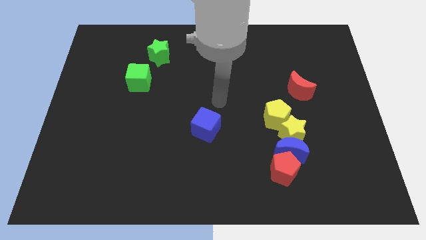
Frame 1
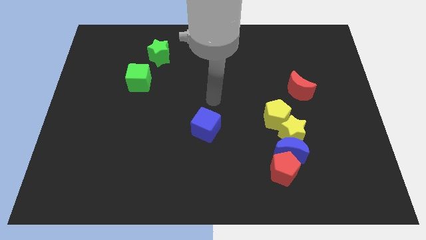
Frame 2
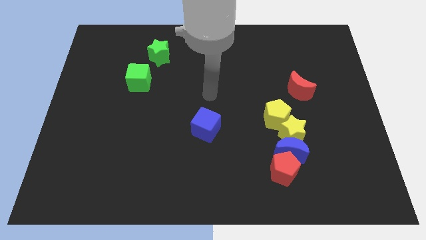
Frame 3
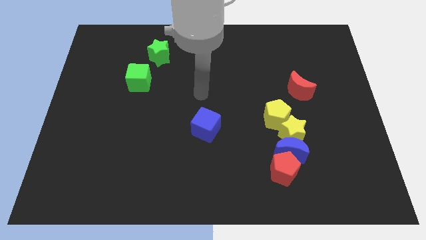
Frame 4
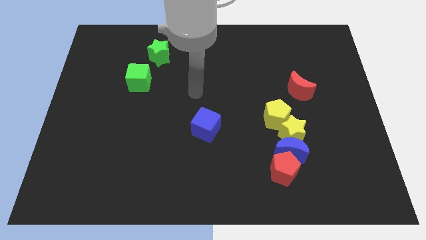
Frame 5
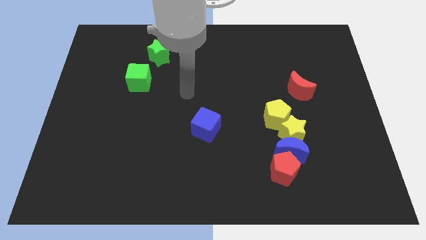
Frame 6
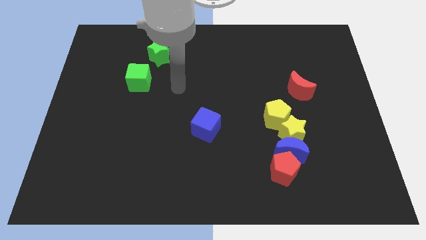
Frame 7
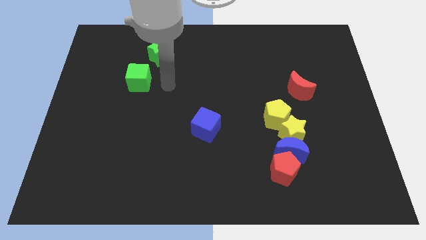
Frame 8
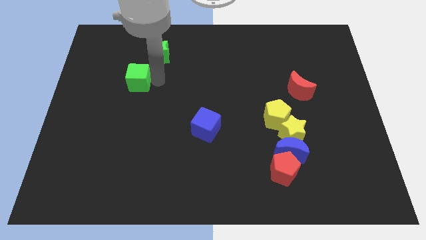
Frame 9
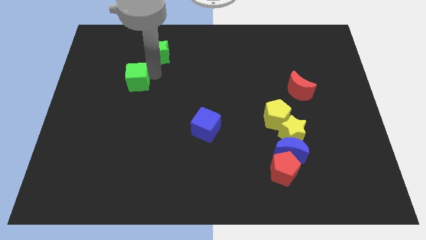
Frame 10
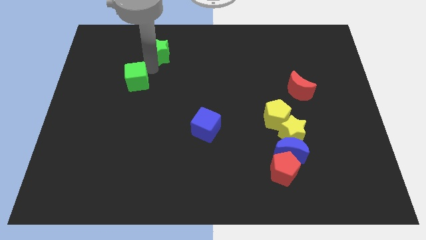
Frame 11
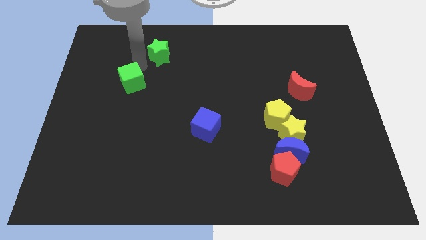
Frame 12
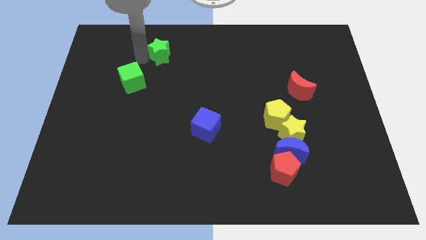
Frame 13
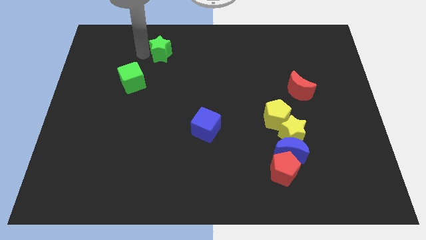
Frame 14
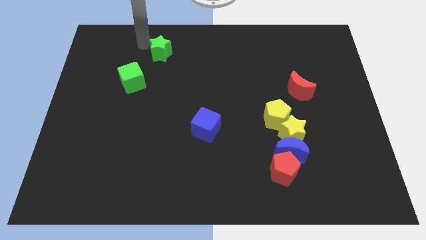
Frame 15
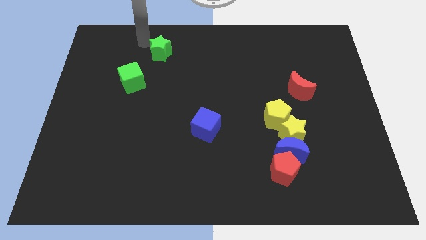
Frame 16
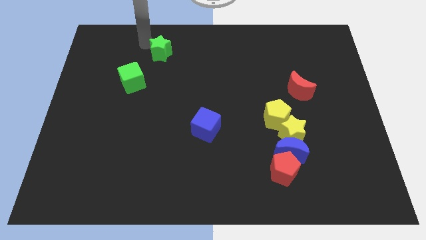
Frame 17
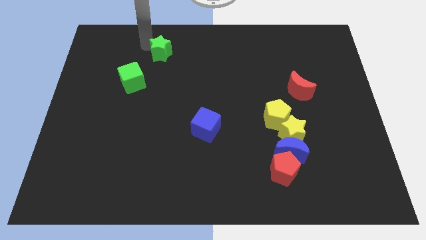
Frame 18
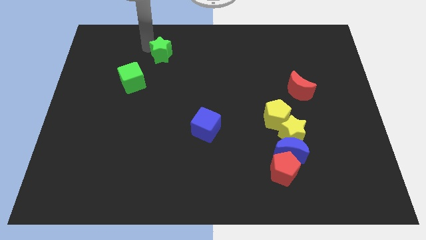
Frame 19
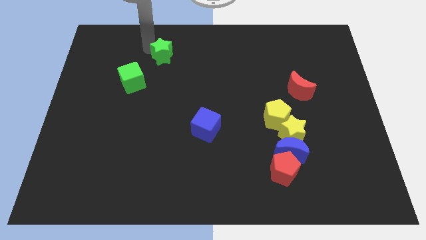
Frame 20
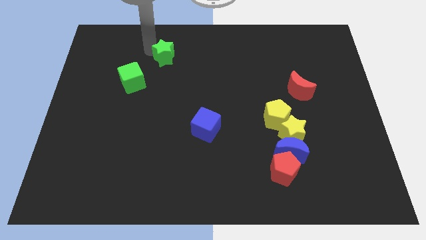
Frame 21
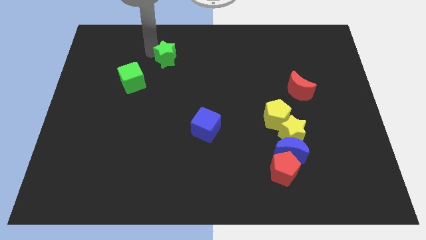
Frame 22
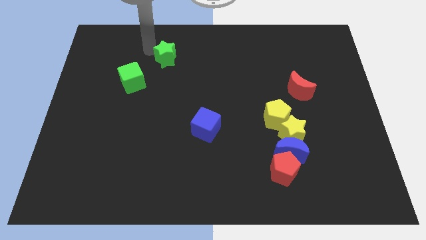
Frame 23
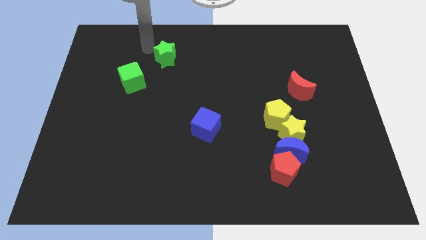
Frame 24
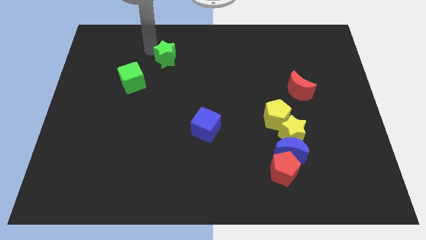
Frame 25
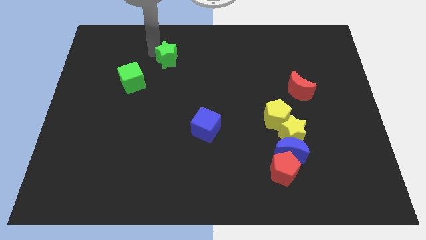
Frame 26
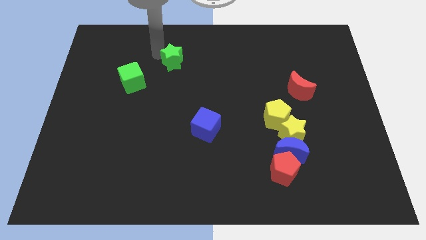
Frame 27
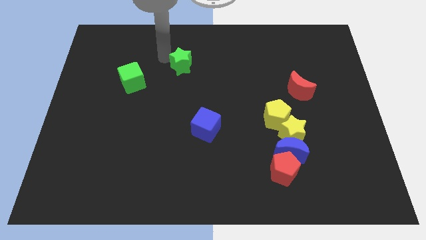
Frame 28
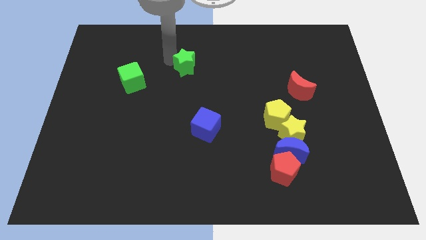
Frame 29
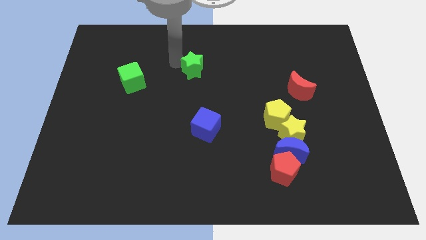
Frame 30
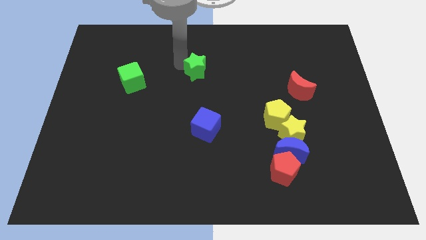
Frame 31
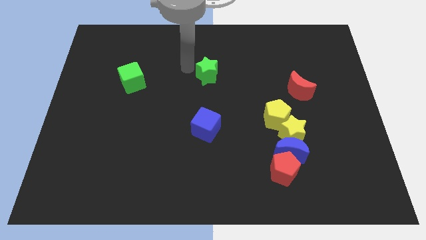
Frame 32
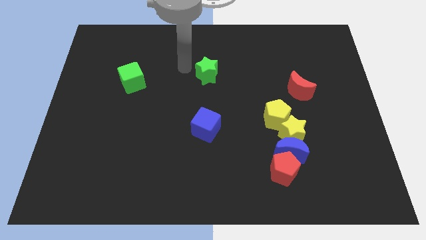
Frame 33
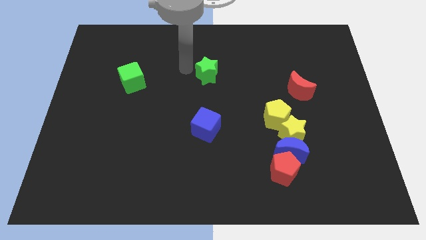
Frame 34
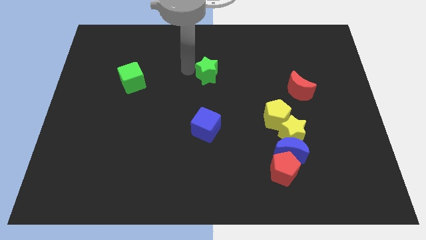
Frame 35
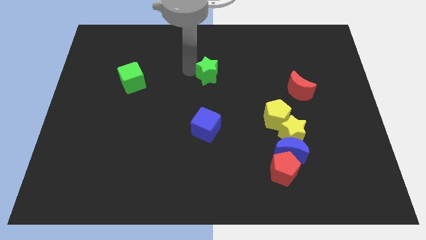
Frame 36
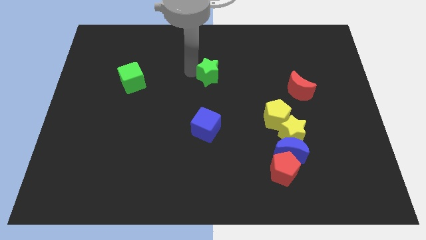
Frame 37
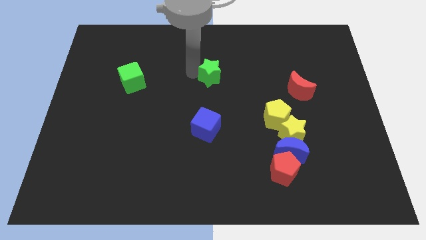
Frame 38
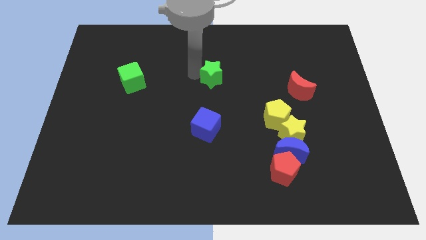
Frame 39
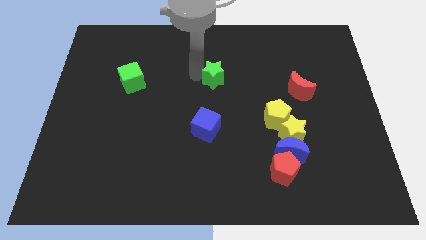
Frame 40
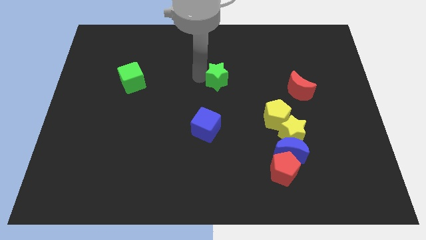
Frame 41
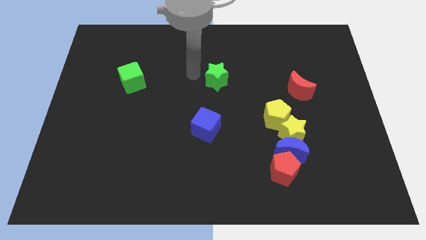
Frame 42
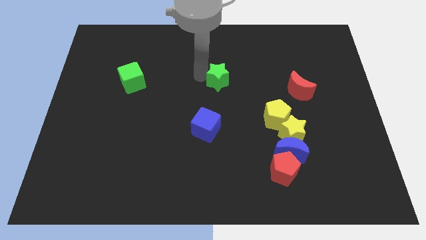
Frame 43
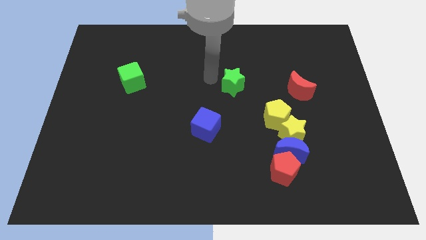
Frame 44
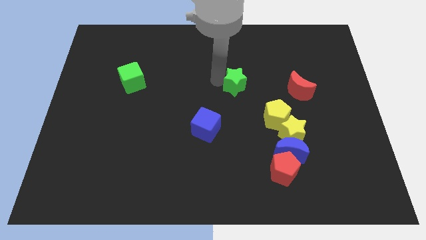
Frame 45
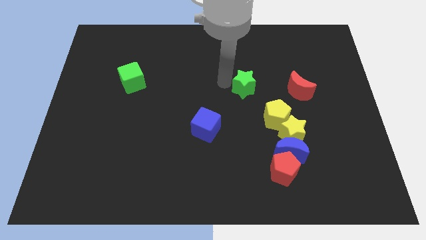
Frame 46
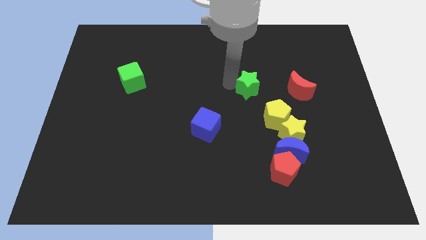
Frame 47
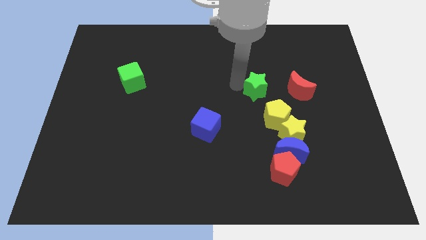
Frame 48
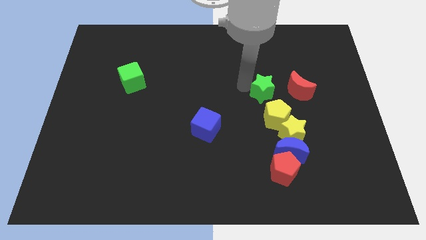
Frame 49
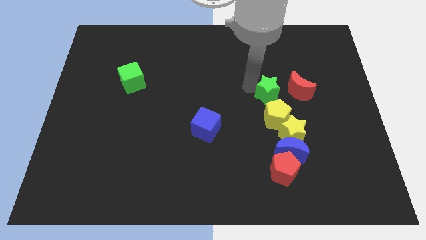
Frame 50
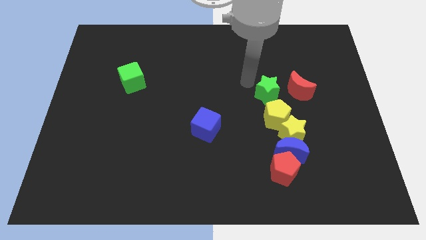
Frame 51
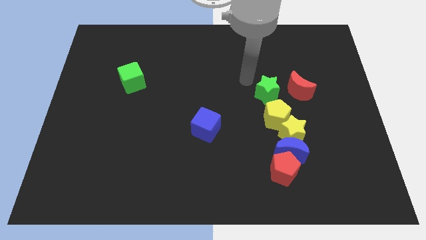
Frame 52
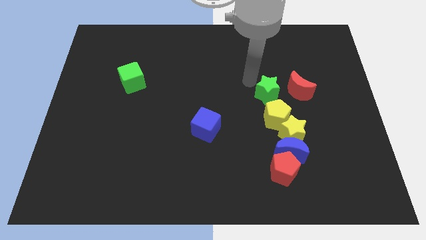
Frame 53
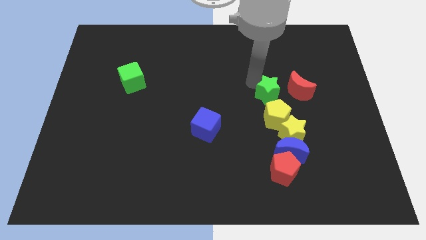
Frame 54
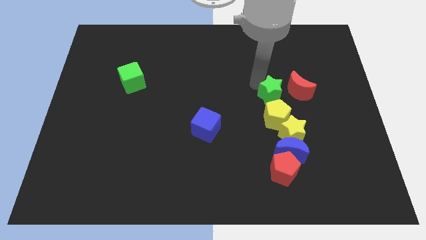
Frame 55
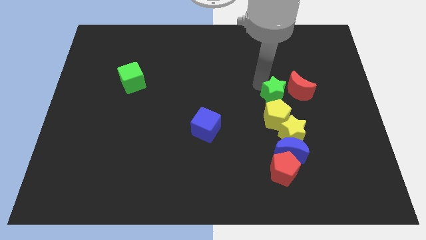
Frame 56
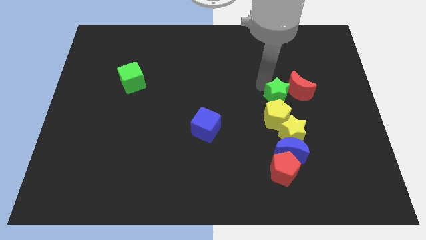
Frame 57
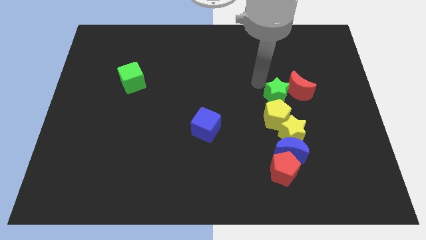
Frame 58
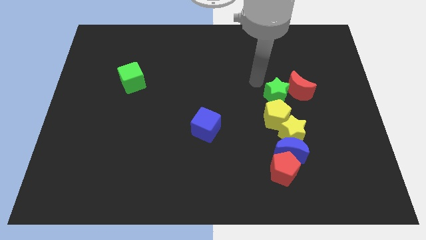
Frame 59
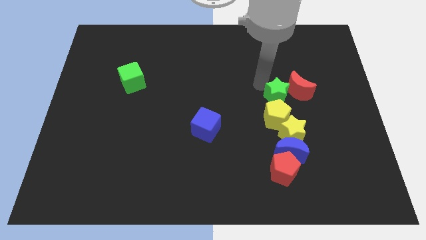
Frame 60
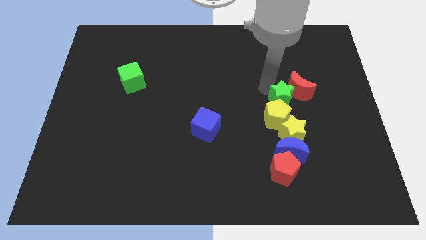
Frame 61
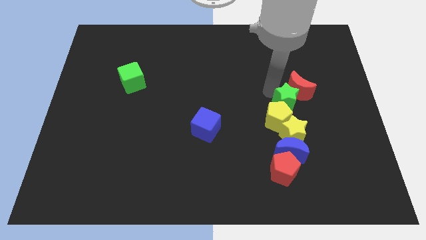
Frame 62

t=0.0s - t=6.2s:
put the green star to the bottom of the red moon

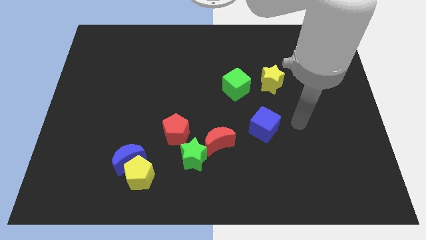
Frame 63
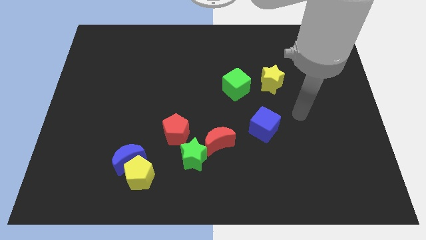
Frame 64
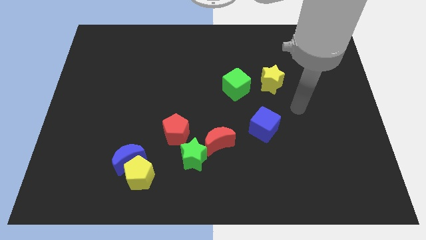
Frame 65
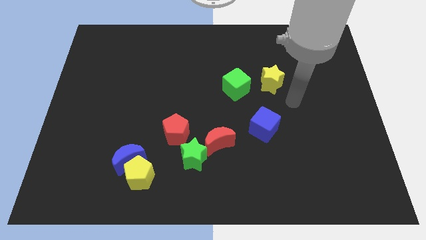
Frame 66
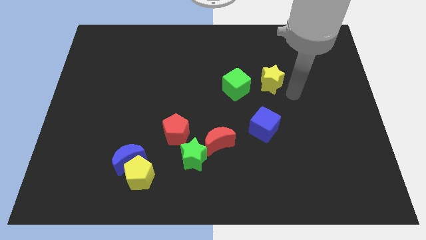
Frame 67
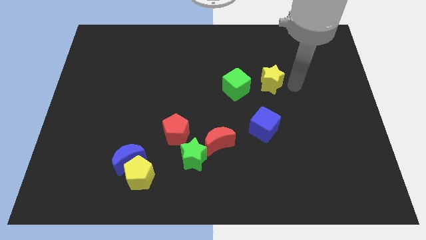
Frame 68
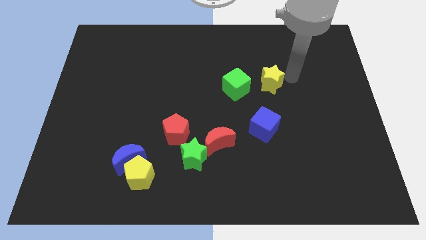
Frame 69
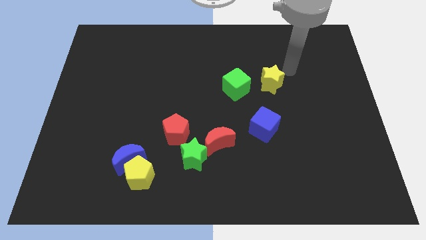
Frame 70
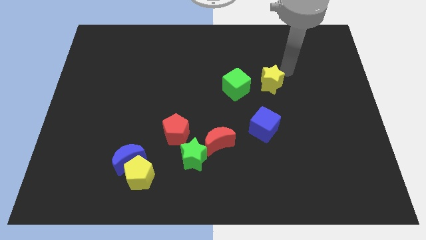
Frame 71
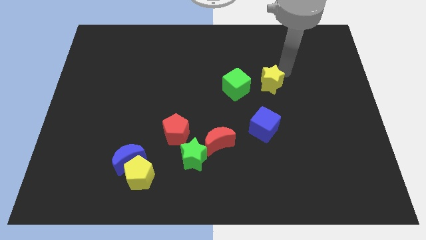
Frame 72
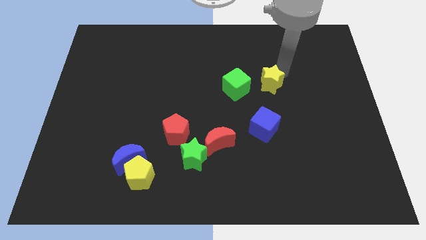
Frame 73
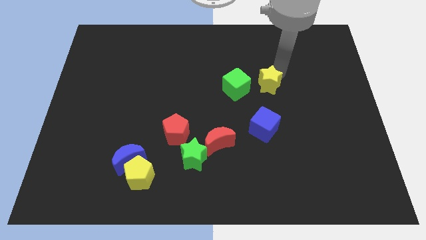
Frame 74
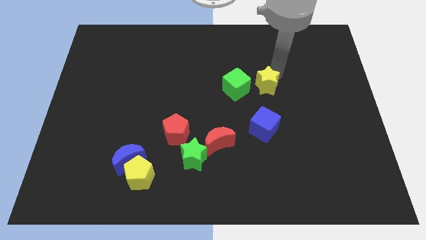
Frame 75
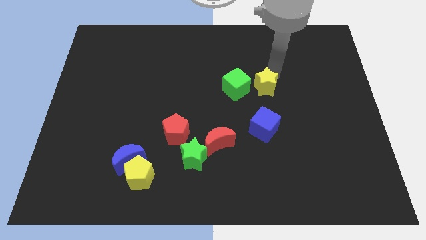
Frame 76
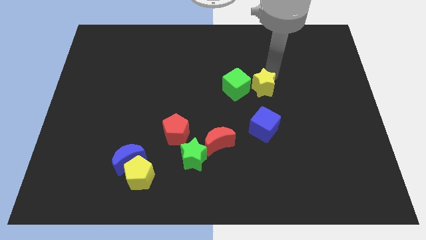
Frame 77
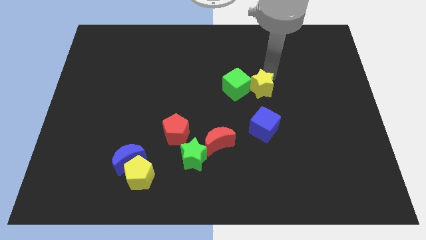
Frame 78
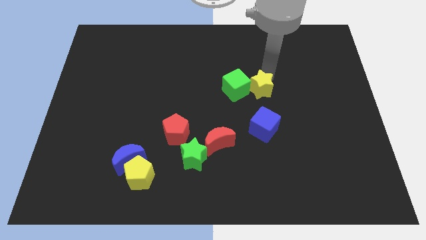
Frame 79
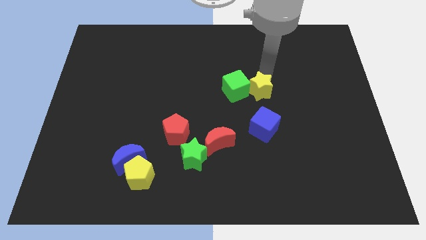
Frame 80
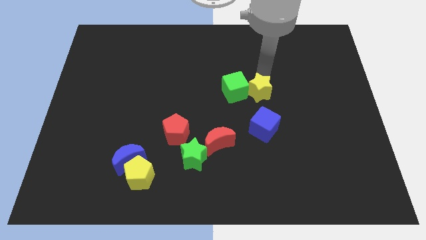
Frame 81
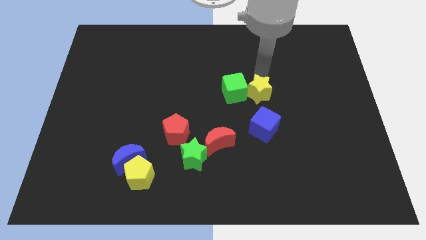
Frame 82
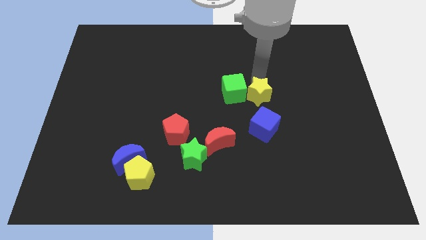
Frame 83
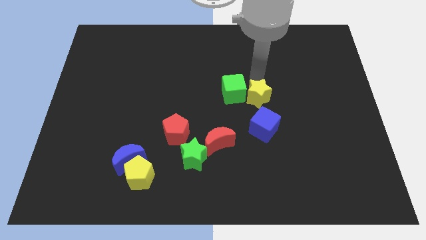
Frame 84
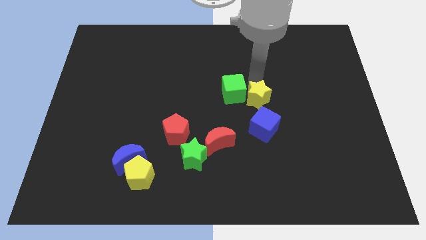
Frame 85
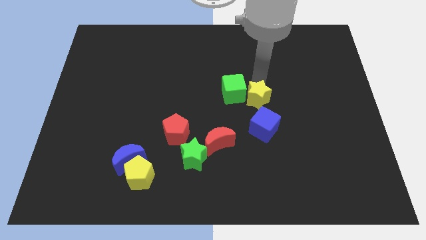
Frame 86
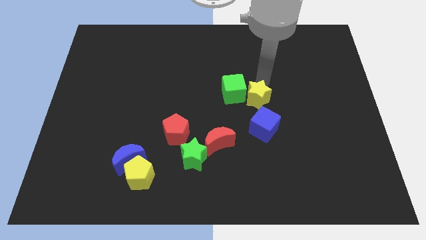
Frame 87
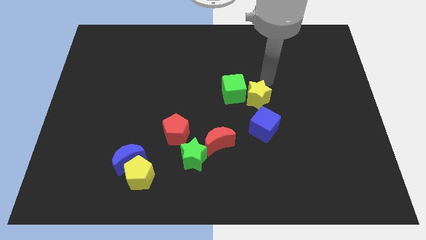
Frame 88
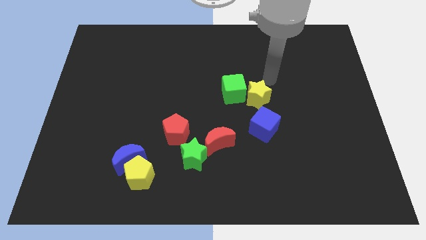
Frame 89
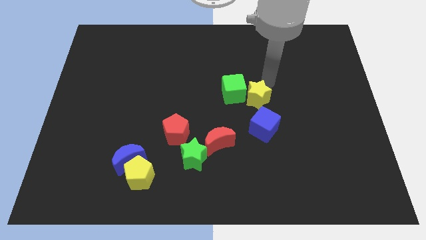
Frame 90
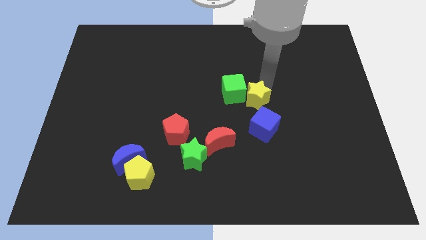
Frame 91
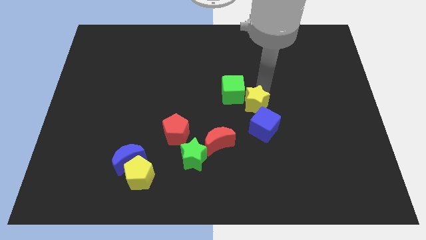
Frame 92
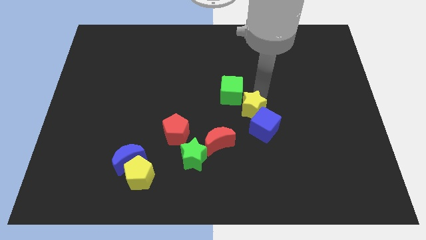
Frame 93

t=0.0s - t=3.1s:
move the yellow star to the top right side of the red moon
